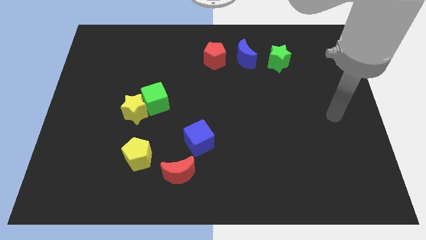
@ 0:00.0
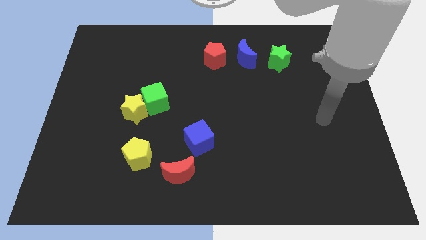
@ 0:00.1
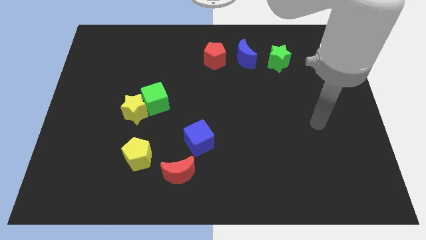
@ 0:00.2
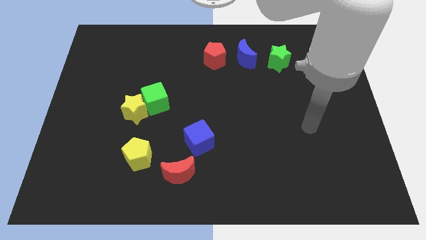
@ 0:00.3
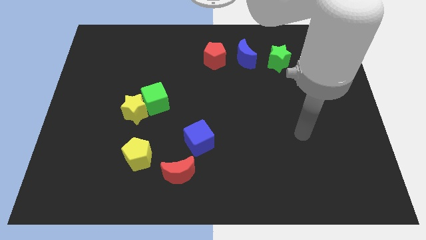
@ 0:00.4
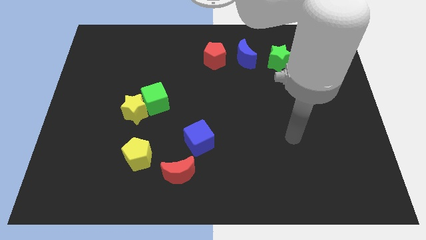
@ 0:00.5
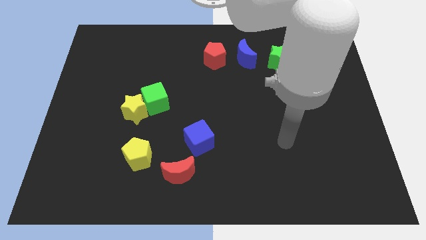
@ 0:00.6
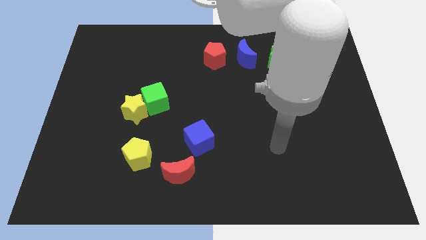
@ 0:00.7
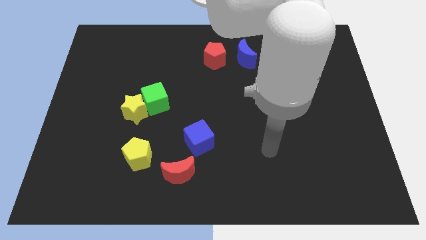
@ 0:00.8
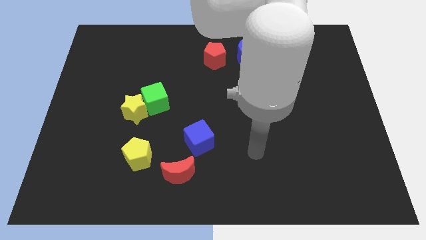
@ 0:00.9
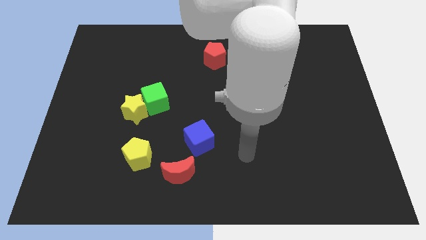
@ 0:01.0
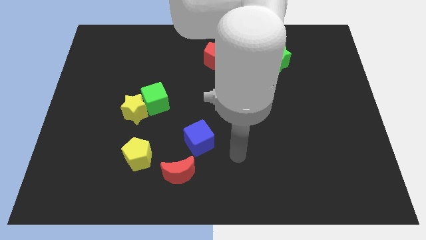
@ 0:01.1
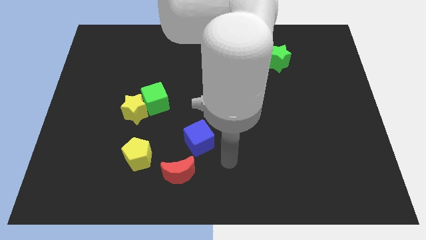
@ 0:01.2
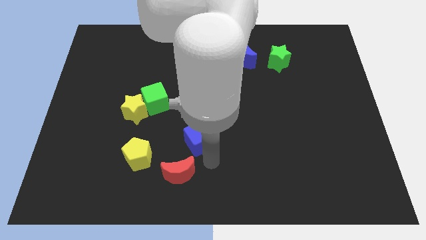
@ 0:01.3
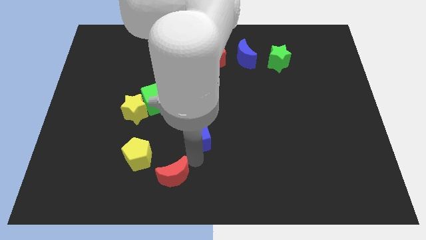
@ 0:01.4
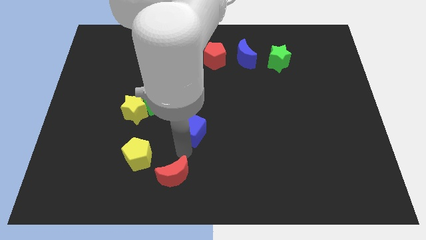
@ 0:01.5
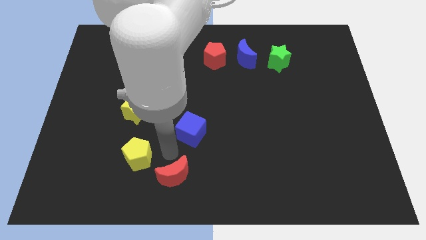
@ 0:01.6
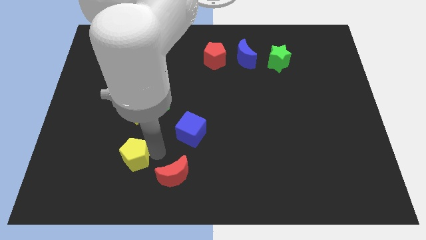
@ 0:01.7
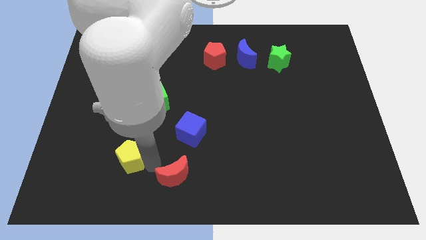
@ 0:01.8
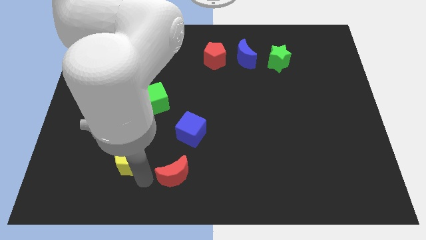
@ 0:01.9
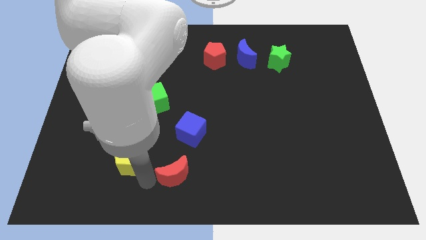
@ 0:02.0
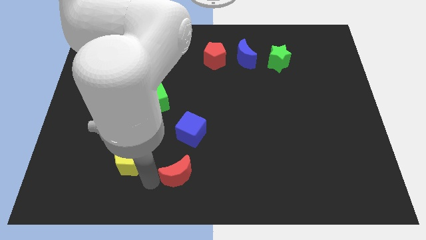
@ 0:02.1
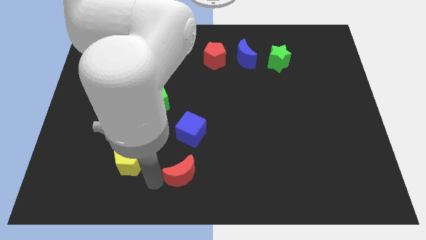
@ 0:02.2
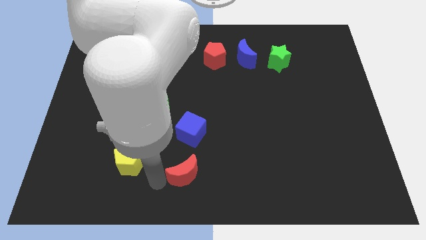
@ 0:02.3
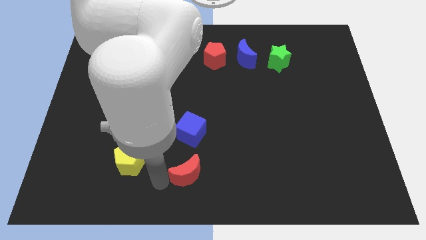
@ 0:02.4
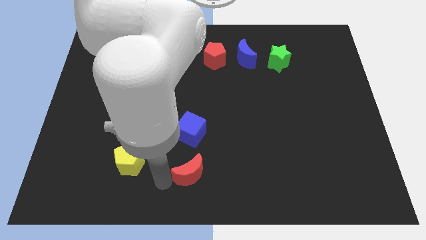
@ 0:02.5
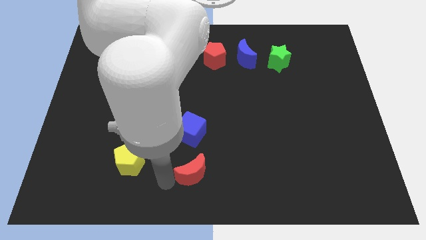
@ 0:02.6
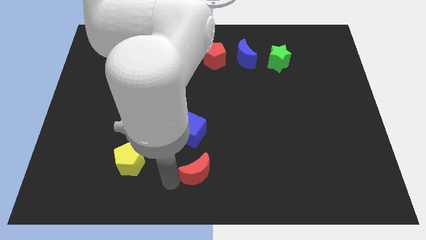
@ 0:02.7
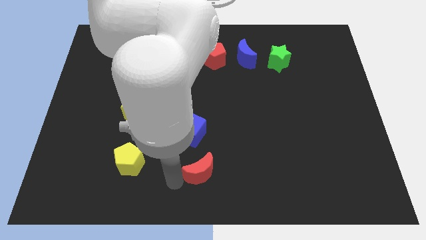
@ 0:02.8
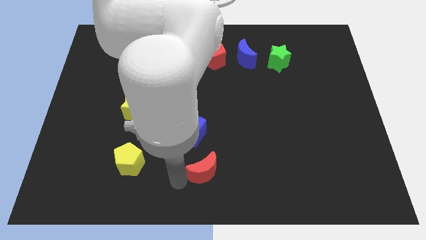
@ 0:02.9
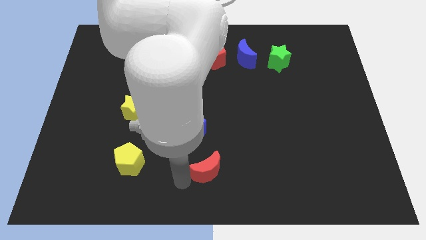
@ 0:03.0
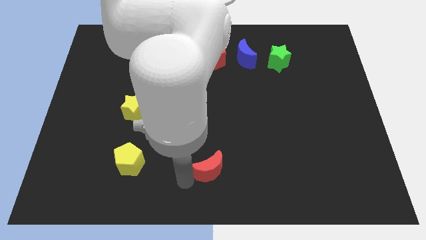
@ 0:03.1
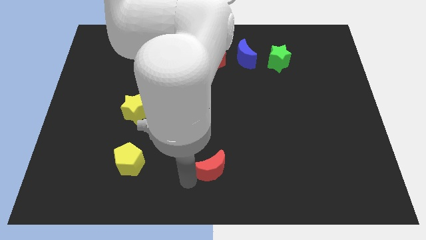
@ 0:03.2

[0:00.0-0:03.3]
push the red moon somewhat right

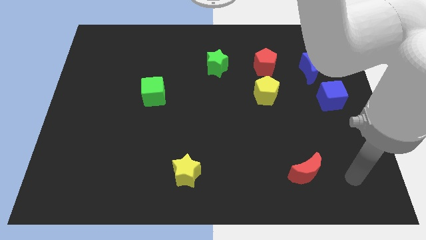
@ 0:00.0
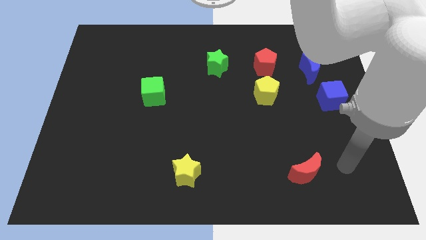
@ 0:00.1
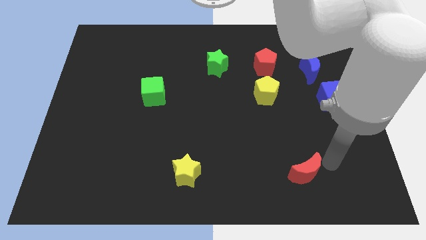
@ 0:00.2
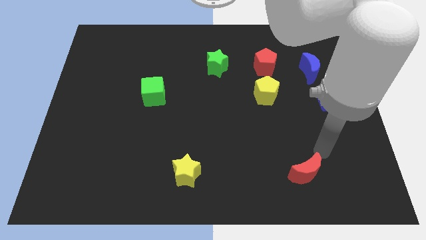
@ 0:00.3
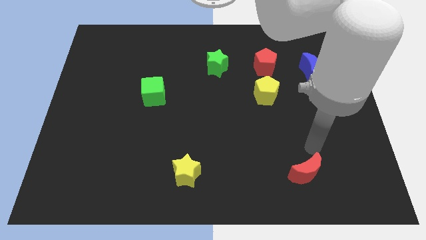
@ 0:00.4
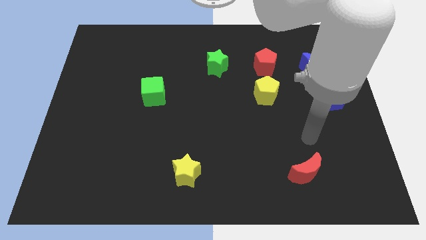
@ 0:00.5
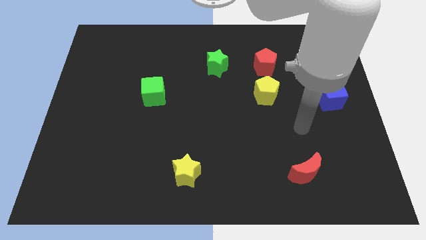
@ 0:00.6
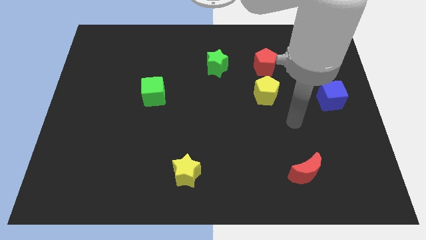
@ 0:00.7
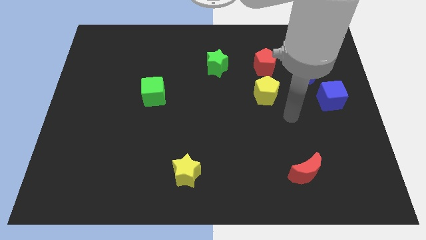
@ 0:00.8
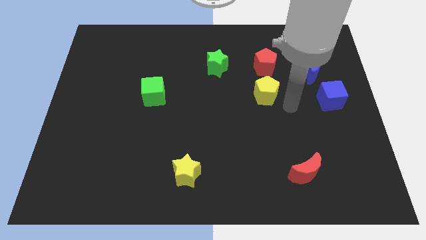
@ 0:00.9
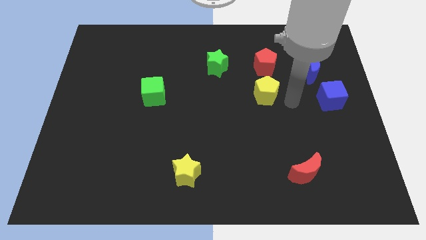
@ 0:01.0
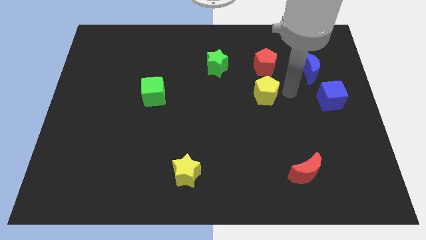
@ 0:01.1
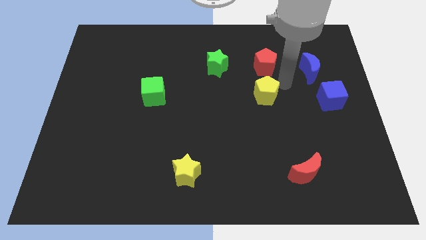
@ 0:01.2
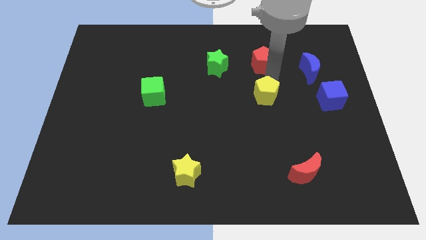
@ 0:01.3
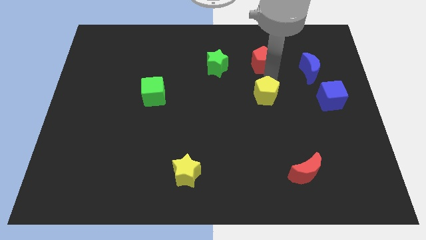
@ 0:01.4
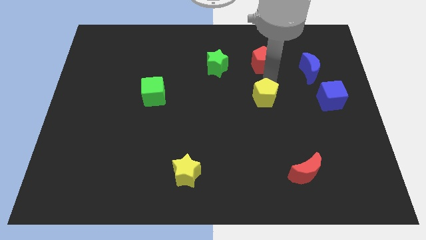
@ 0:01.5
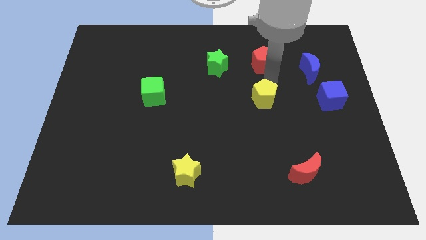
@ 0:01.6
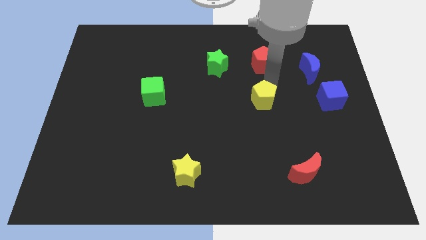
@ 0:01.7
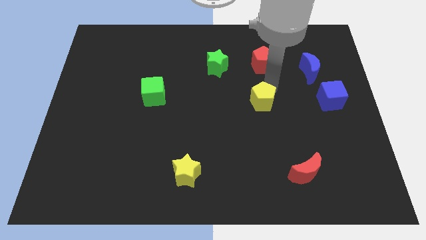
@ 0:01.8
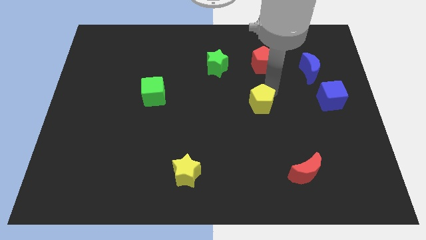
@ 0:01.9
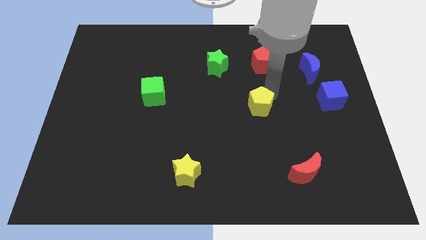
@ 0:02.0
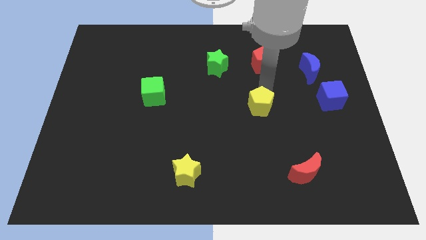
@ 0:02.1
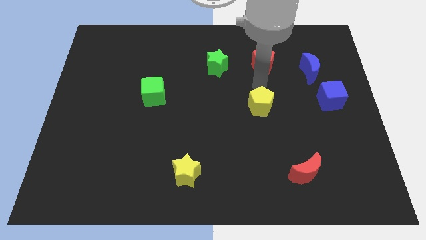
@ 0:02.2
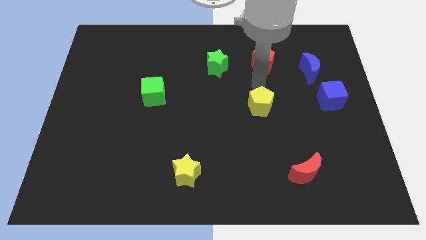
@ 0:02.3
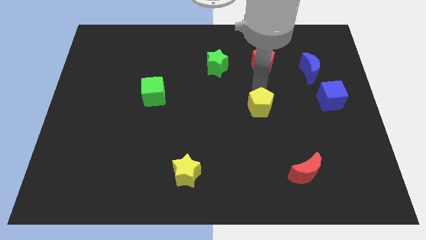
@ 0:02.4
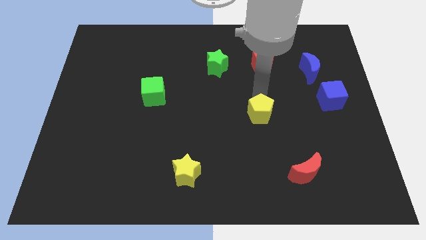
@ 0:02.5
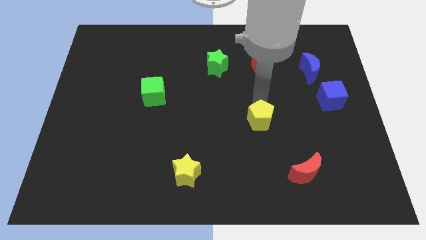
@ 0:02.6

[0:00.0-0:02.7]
move the yellow pentagon slightly down

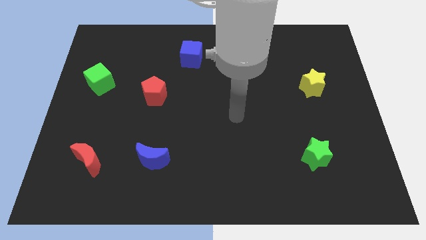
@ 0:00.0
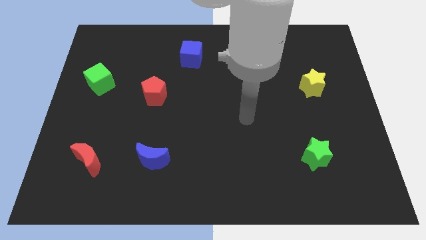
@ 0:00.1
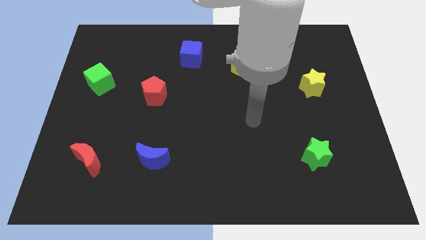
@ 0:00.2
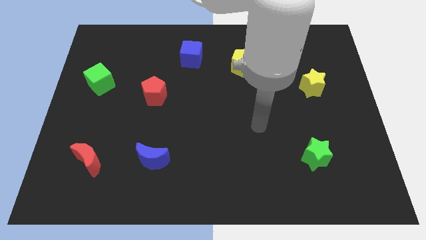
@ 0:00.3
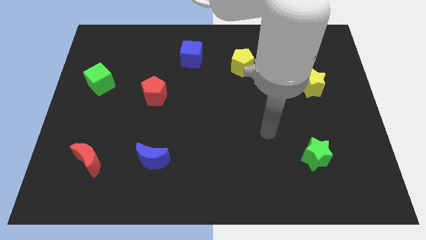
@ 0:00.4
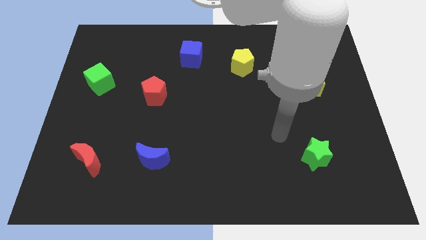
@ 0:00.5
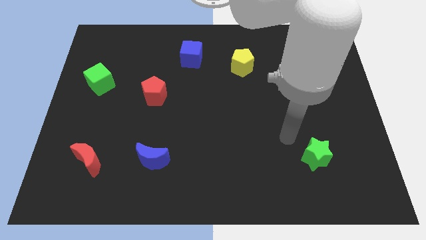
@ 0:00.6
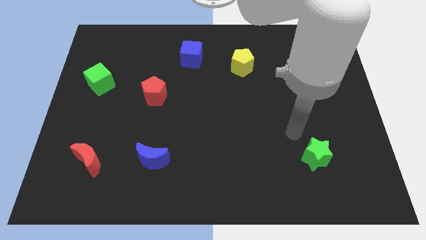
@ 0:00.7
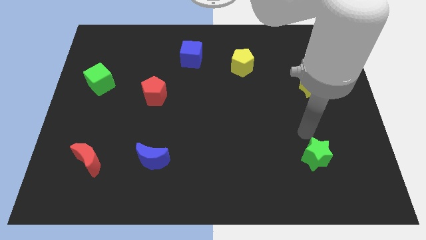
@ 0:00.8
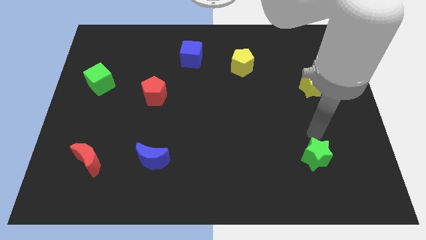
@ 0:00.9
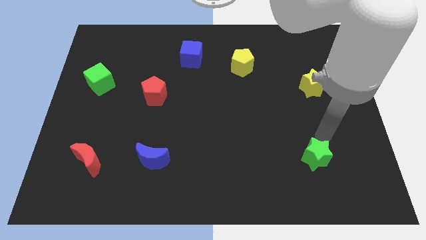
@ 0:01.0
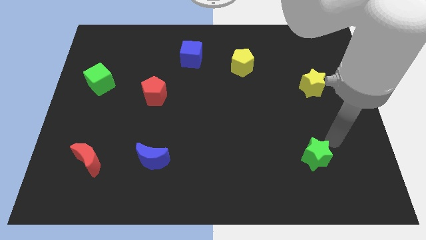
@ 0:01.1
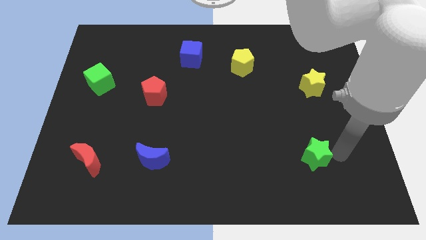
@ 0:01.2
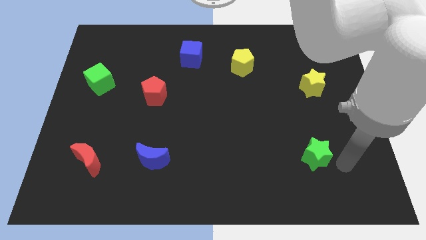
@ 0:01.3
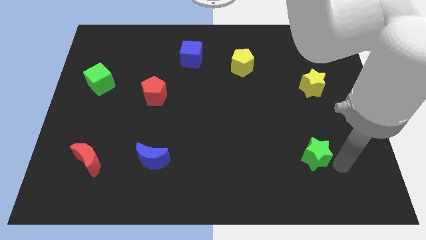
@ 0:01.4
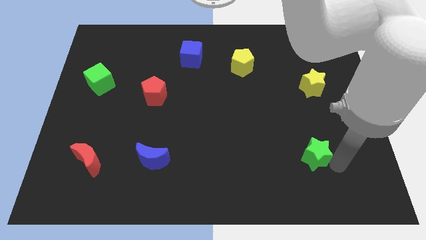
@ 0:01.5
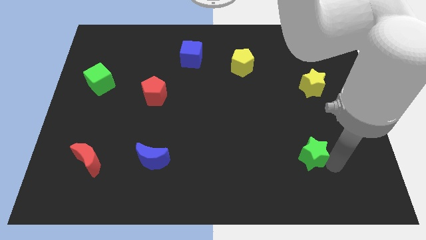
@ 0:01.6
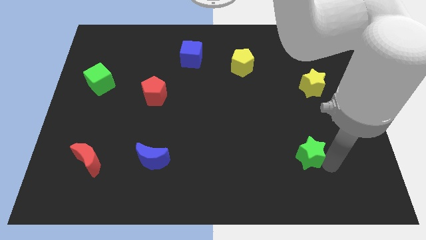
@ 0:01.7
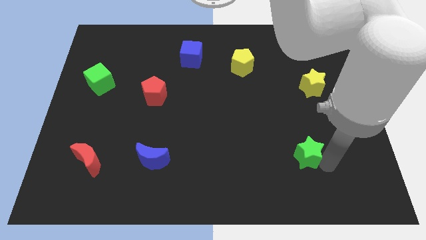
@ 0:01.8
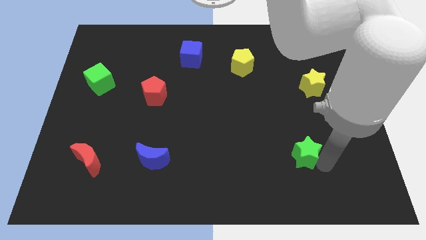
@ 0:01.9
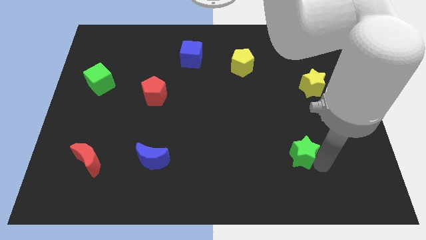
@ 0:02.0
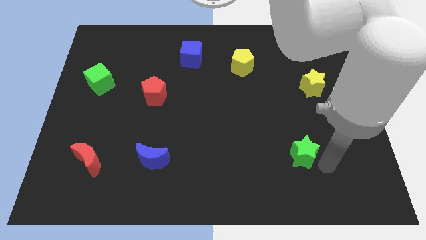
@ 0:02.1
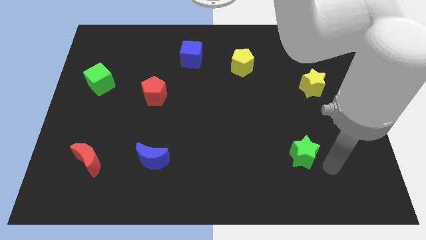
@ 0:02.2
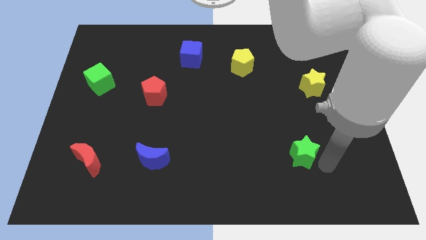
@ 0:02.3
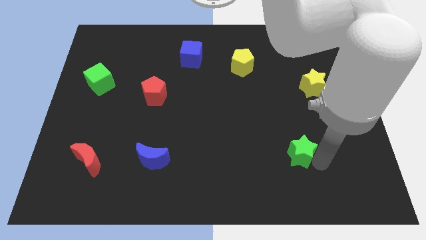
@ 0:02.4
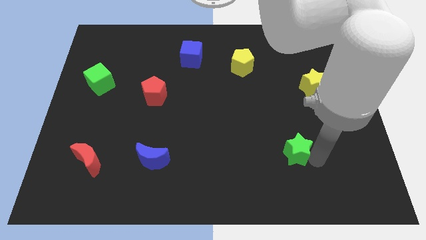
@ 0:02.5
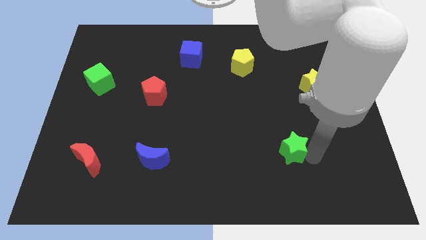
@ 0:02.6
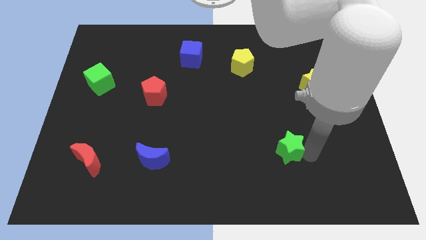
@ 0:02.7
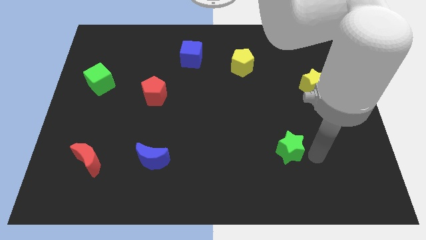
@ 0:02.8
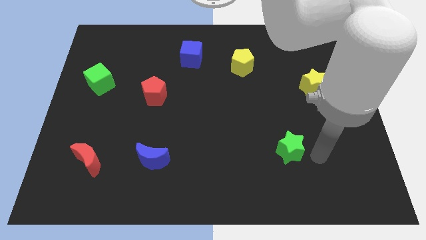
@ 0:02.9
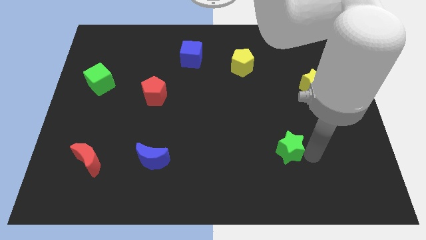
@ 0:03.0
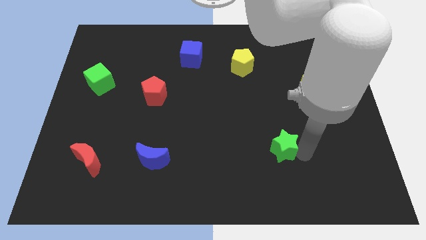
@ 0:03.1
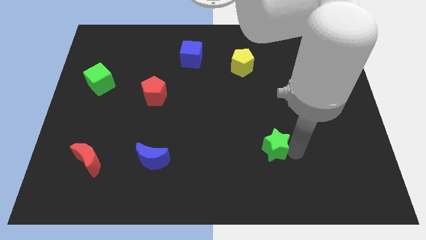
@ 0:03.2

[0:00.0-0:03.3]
slide the green star a little bit left
